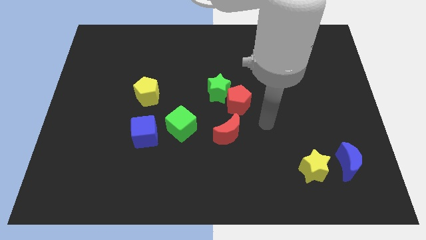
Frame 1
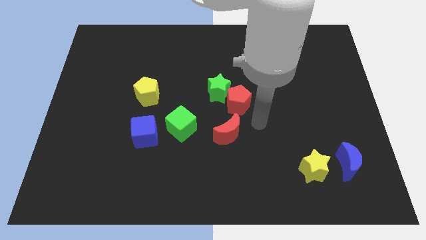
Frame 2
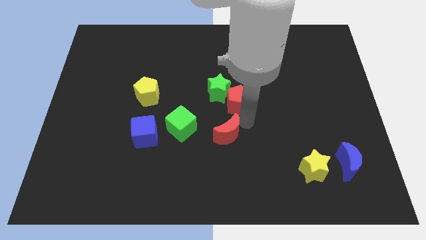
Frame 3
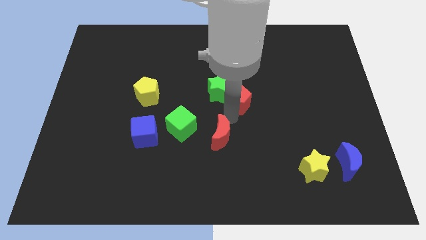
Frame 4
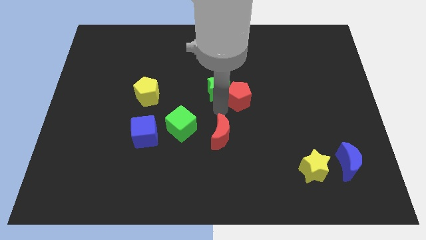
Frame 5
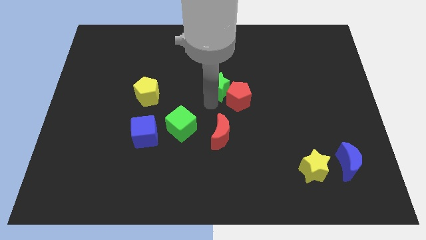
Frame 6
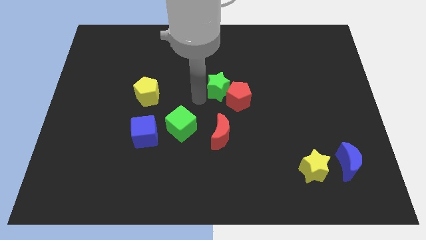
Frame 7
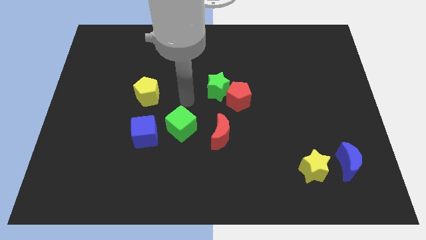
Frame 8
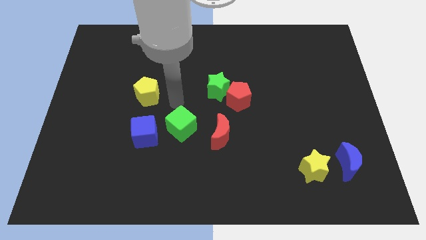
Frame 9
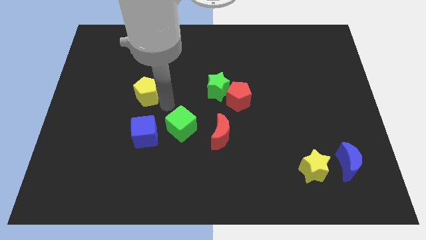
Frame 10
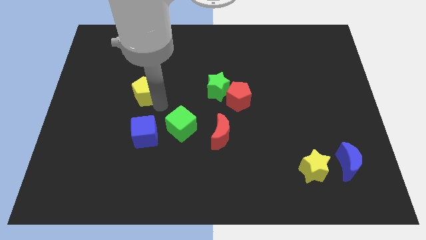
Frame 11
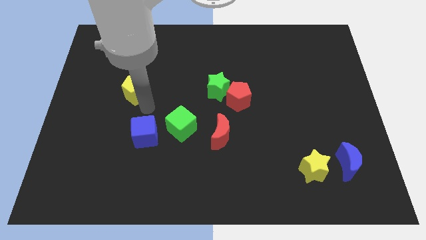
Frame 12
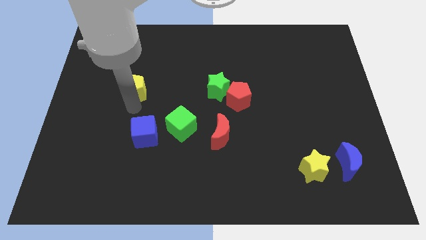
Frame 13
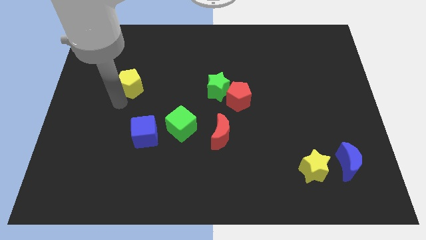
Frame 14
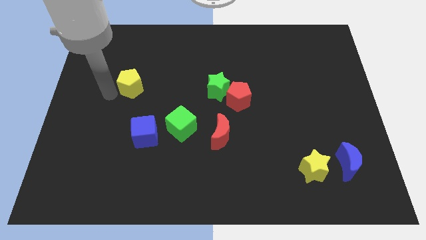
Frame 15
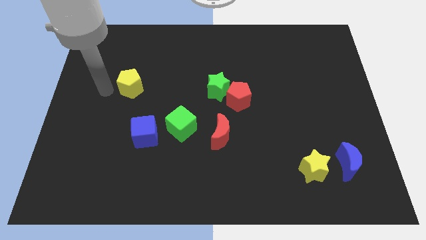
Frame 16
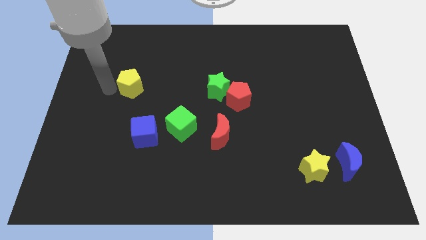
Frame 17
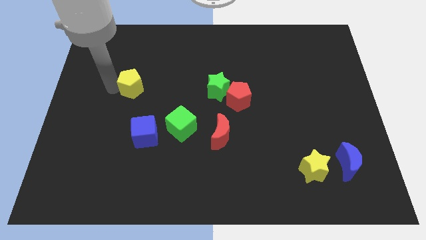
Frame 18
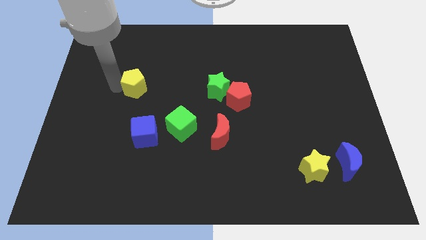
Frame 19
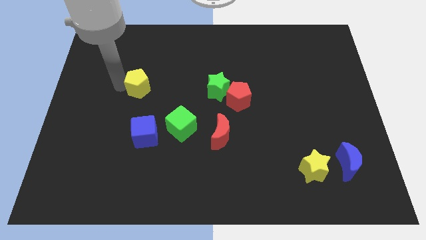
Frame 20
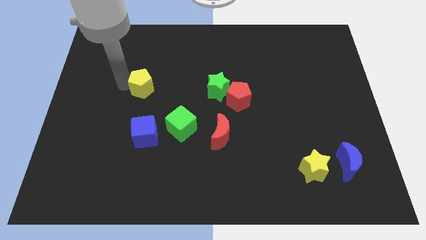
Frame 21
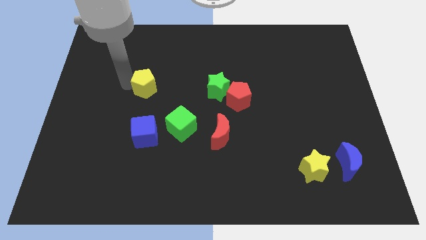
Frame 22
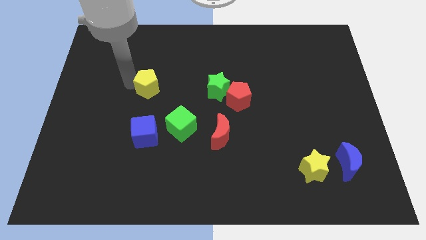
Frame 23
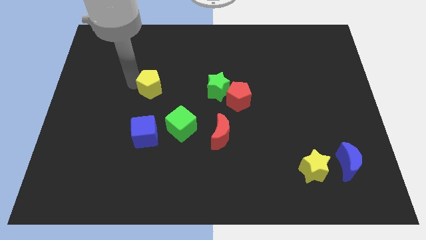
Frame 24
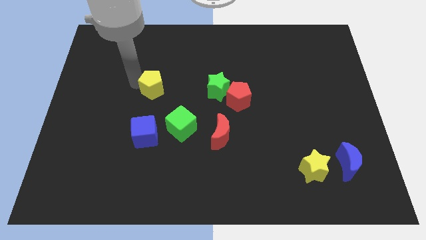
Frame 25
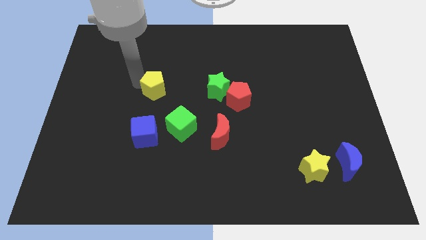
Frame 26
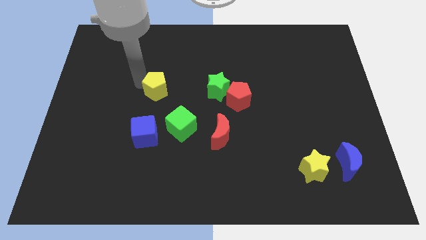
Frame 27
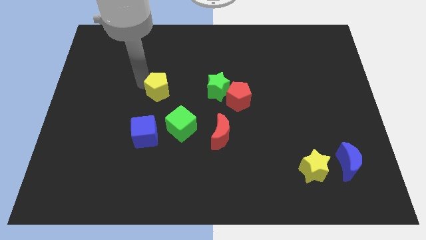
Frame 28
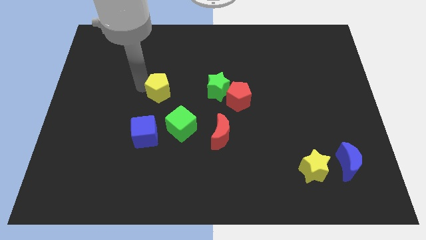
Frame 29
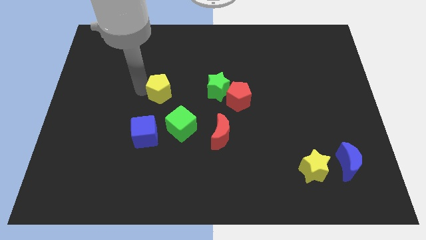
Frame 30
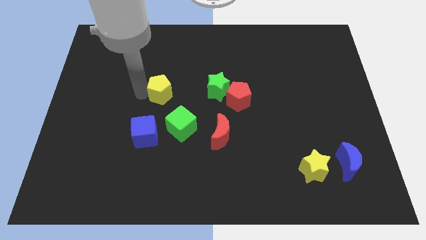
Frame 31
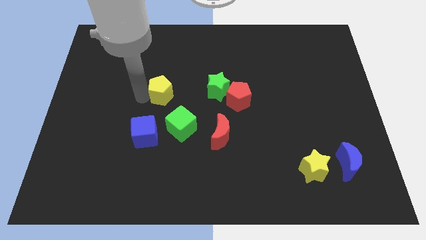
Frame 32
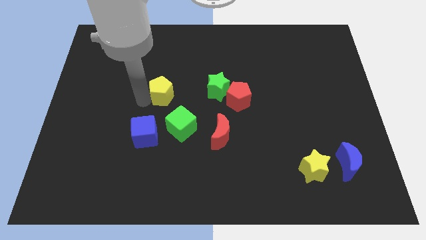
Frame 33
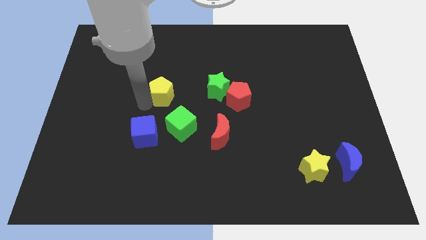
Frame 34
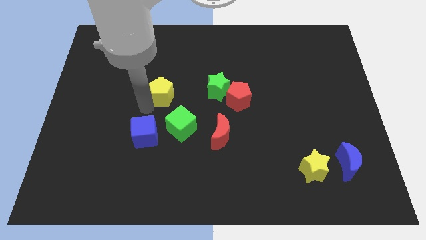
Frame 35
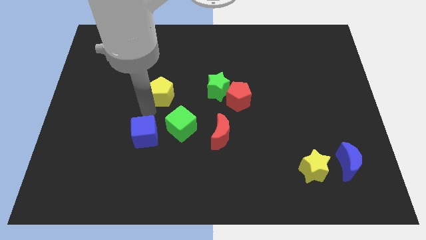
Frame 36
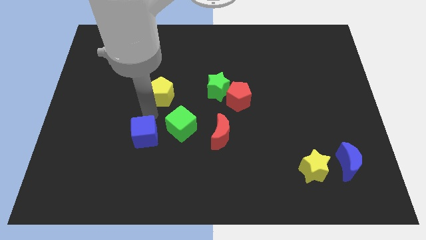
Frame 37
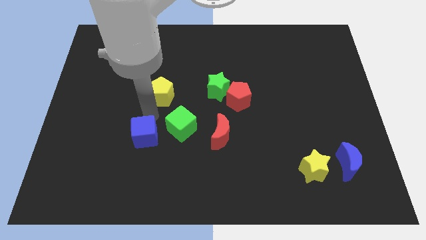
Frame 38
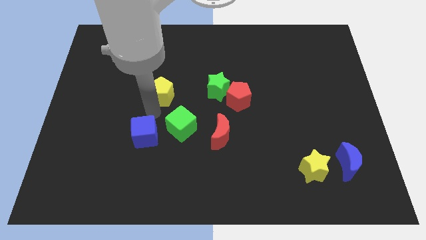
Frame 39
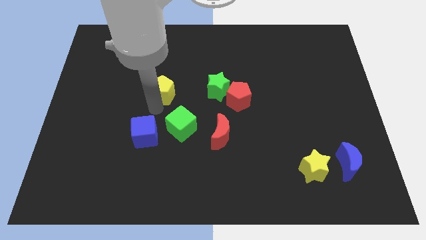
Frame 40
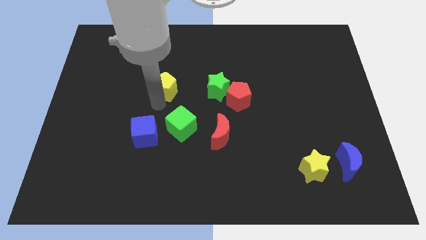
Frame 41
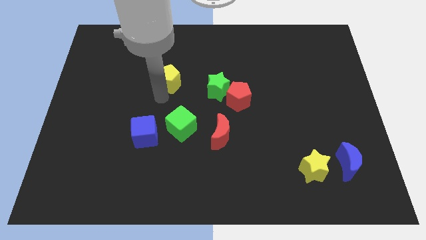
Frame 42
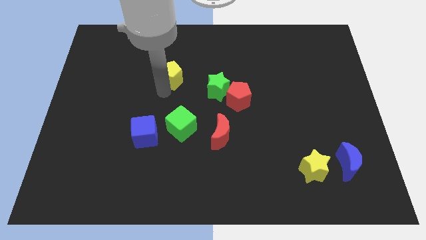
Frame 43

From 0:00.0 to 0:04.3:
push the yellow pentagon a little upwards and then to the right

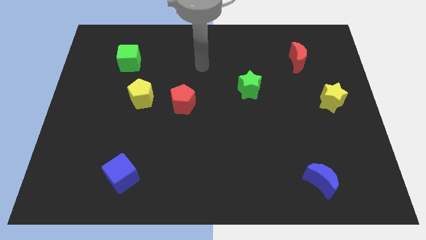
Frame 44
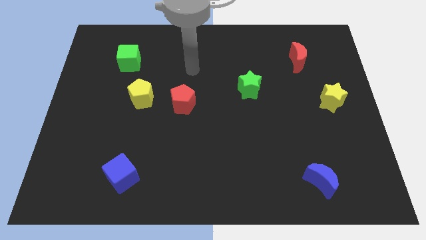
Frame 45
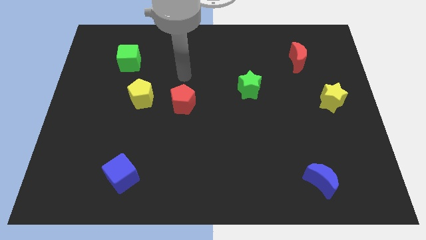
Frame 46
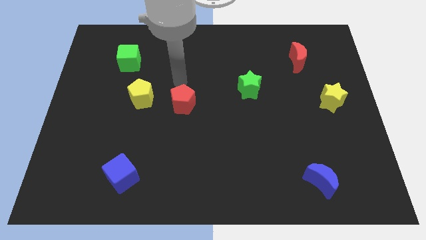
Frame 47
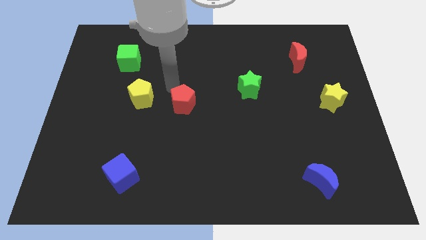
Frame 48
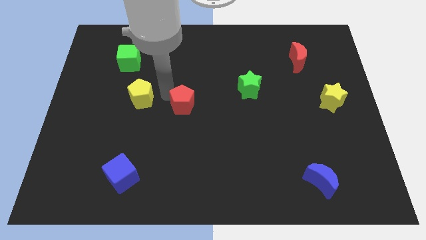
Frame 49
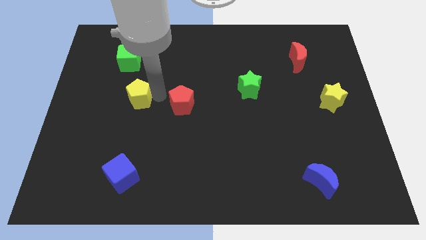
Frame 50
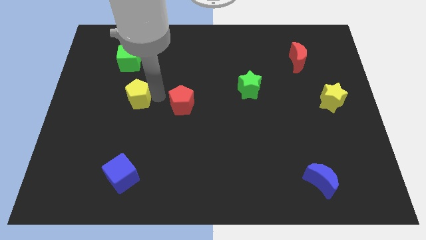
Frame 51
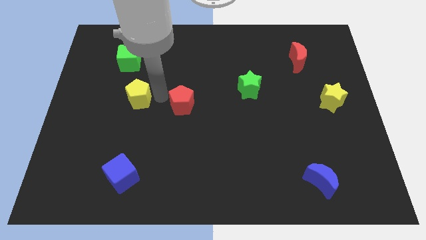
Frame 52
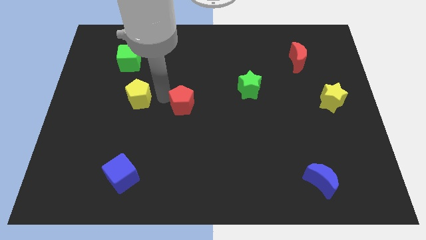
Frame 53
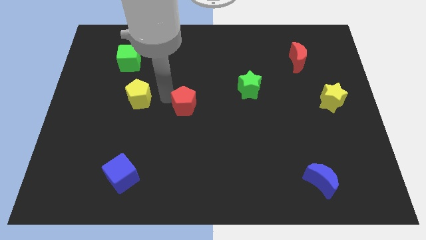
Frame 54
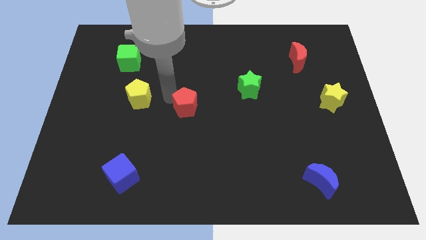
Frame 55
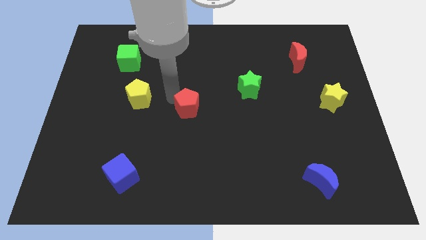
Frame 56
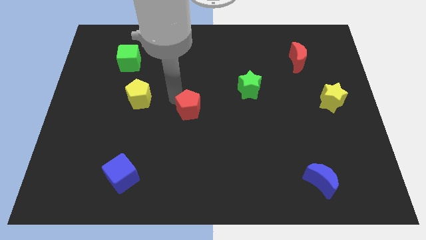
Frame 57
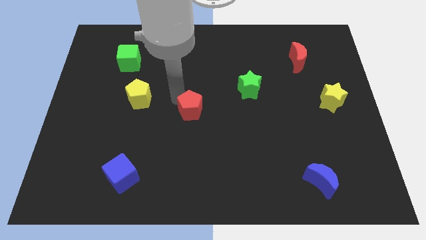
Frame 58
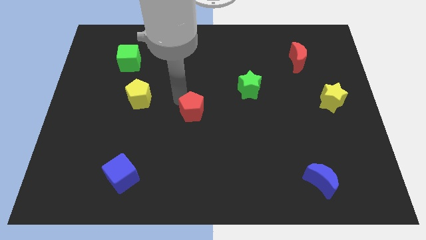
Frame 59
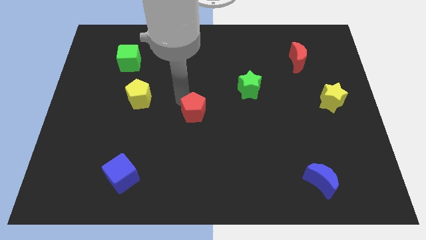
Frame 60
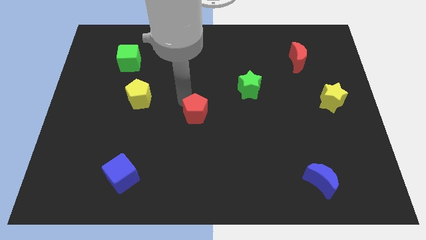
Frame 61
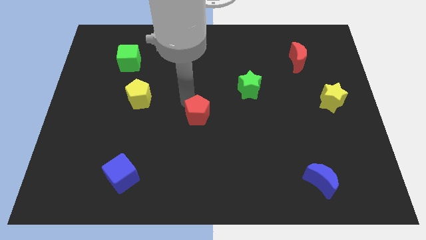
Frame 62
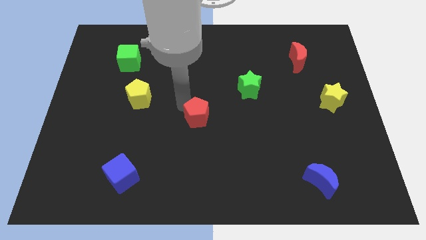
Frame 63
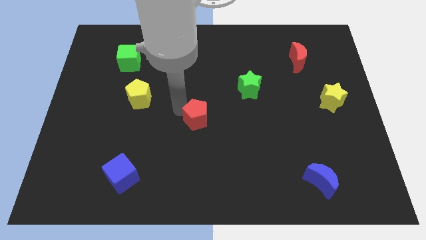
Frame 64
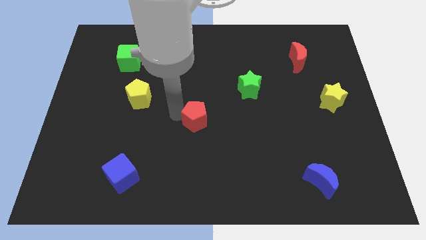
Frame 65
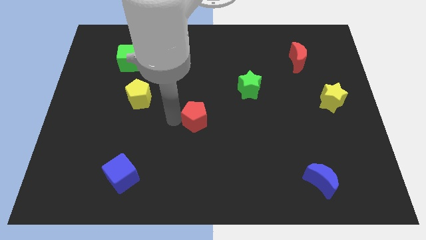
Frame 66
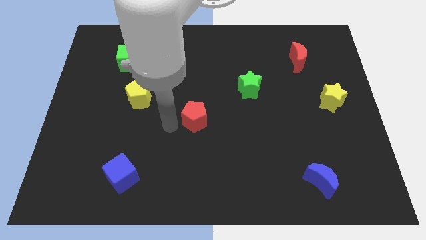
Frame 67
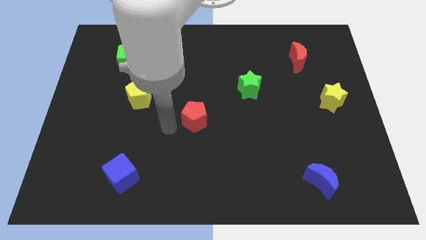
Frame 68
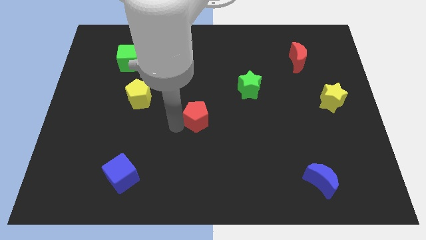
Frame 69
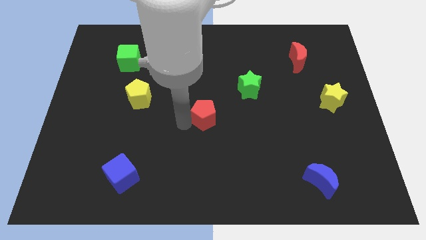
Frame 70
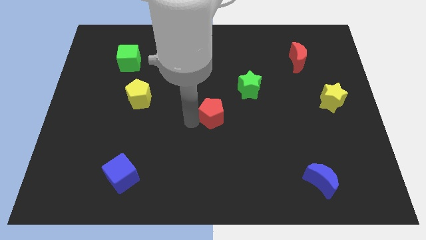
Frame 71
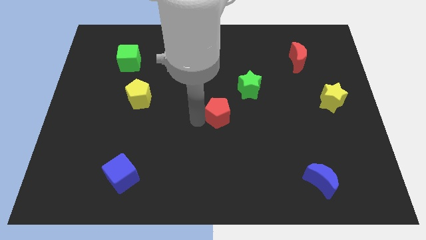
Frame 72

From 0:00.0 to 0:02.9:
move the red pentagon right a bit

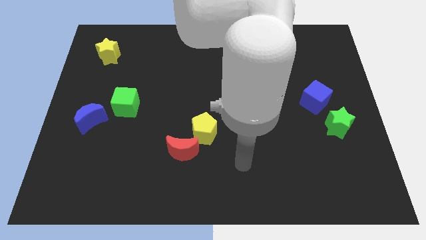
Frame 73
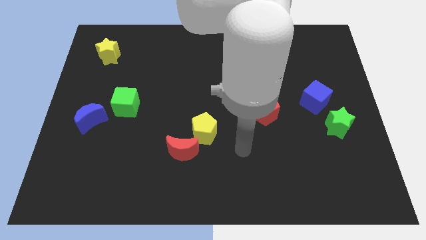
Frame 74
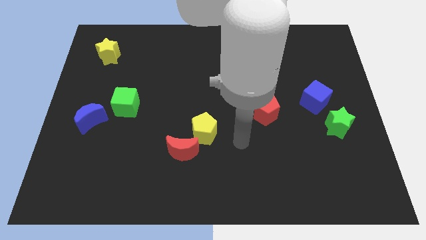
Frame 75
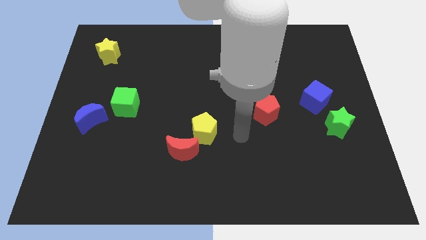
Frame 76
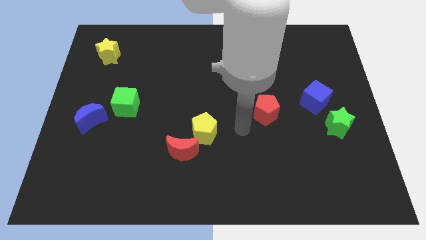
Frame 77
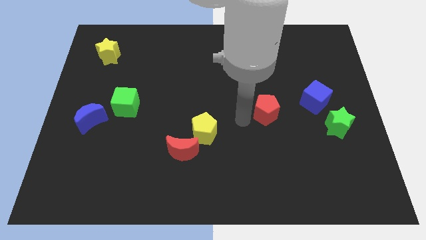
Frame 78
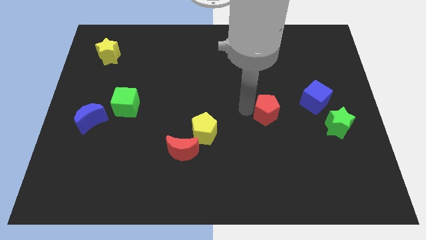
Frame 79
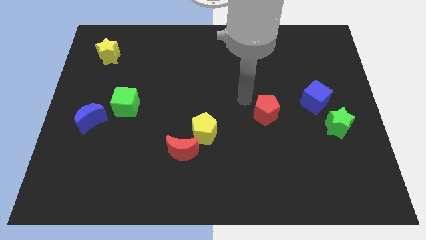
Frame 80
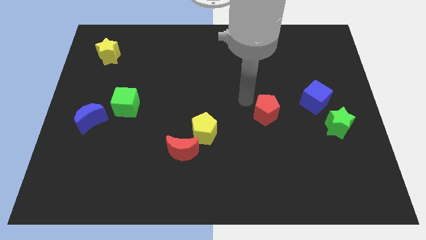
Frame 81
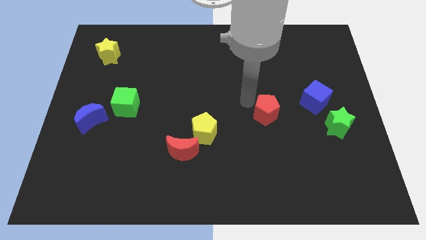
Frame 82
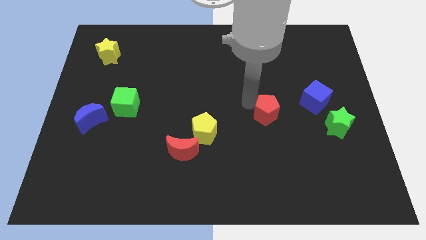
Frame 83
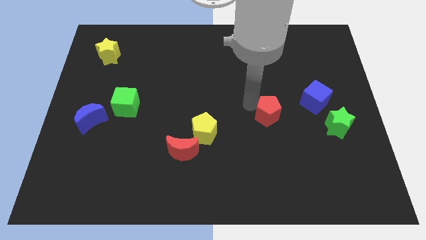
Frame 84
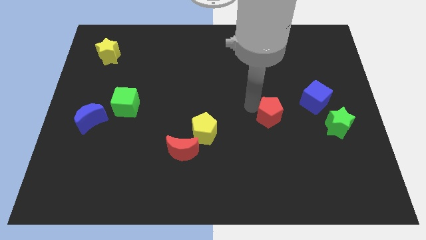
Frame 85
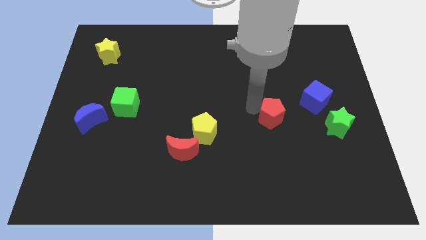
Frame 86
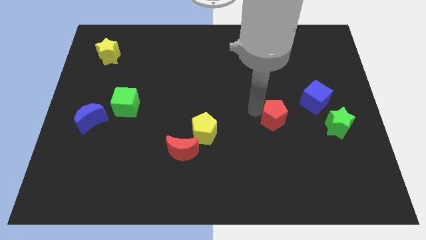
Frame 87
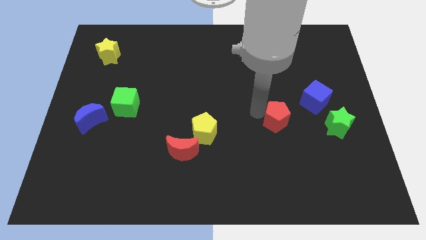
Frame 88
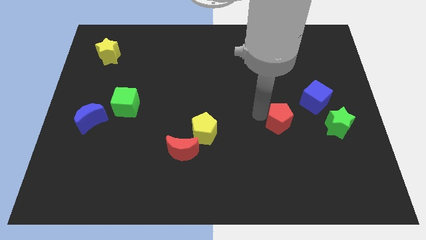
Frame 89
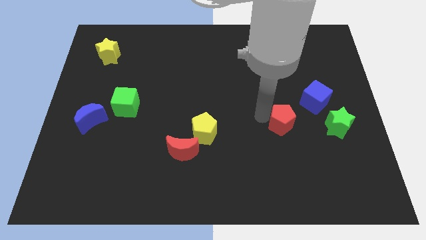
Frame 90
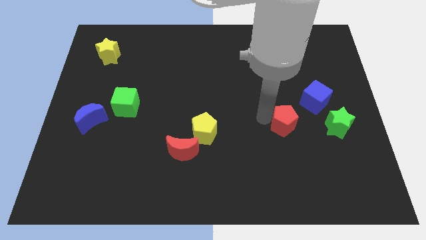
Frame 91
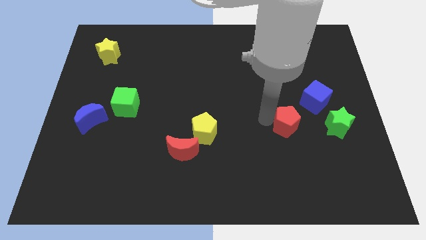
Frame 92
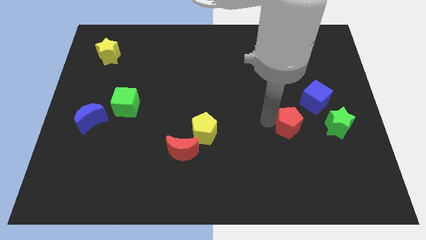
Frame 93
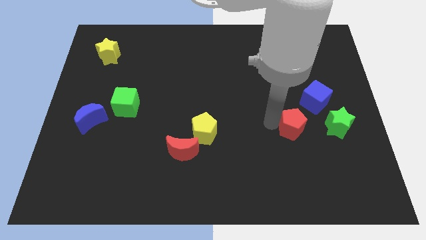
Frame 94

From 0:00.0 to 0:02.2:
slightly push the red pentagon down and right diagonally
